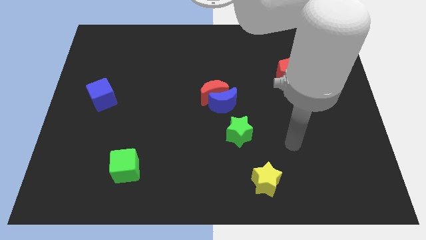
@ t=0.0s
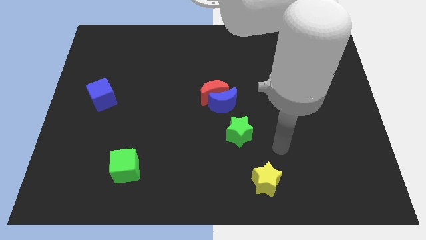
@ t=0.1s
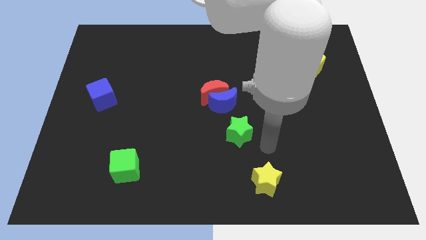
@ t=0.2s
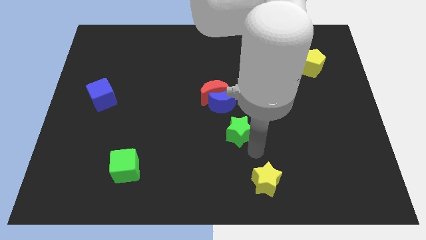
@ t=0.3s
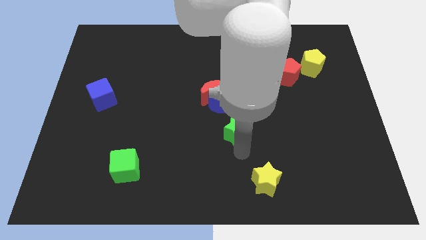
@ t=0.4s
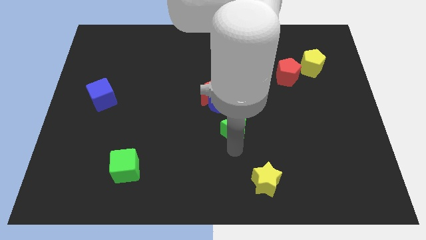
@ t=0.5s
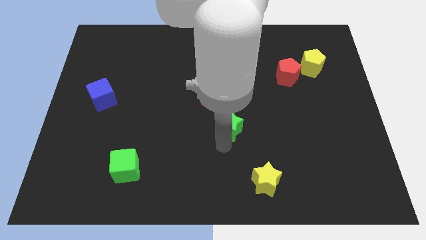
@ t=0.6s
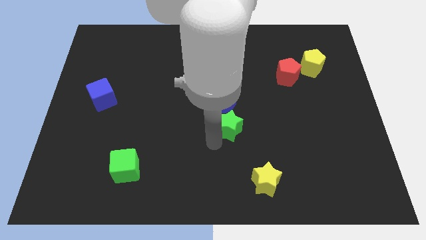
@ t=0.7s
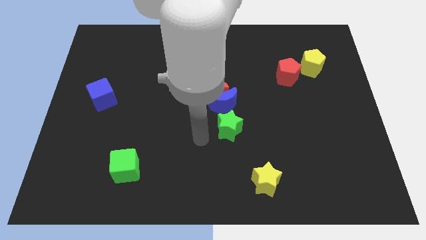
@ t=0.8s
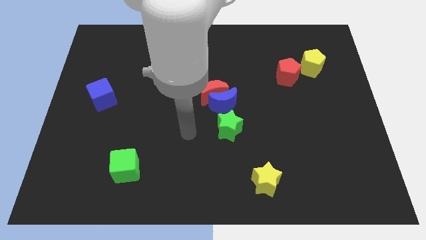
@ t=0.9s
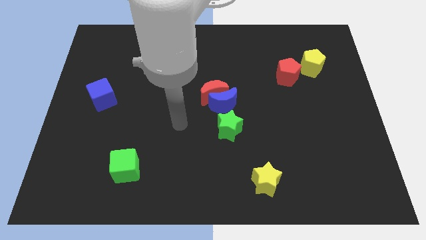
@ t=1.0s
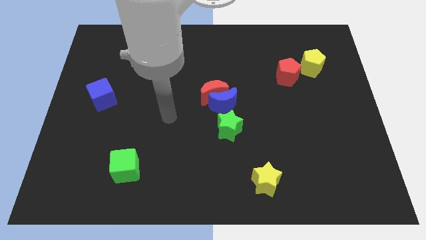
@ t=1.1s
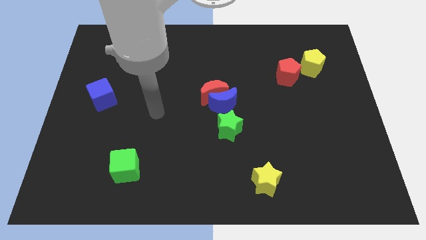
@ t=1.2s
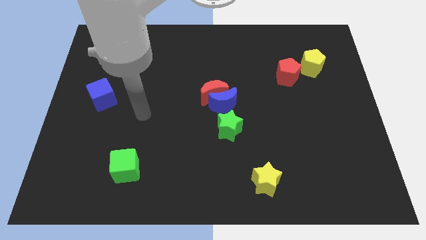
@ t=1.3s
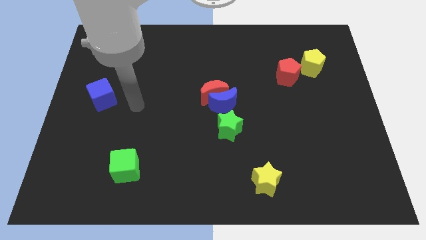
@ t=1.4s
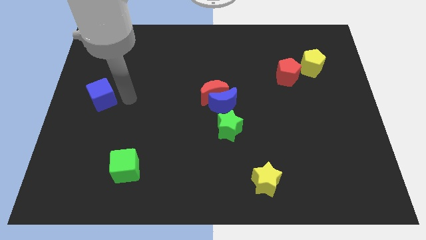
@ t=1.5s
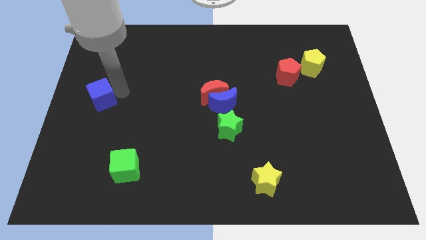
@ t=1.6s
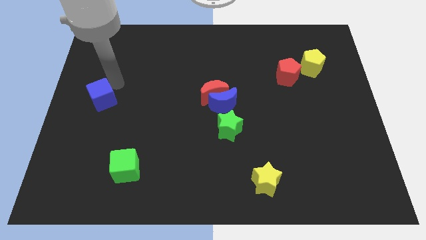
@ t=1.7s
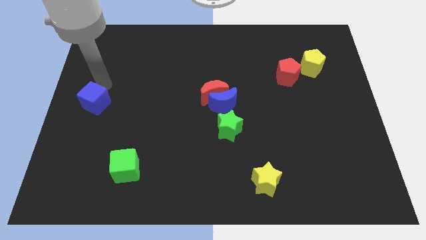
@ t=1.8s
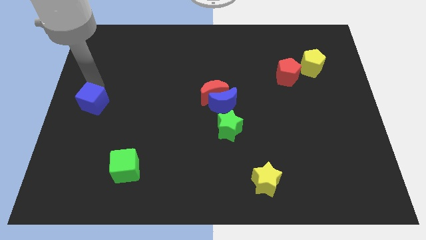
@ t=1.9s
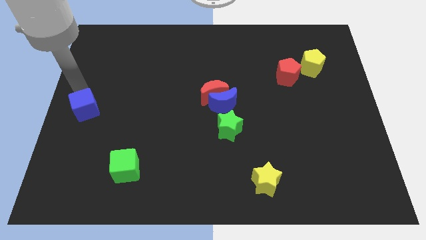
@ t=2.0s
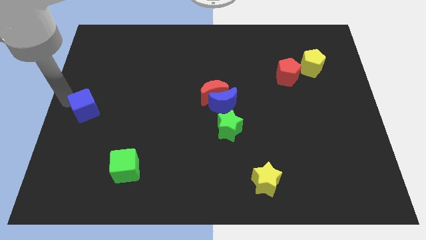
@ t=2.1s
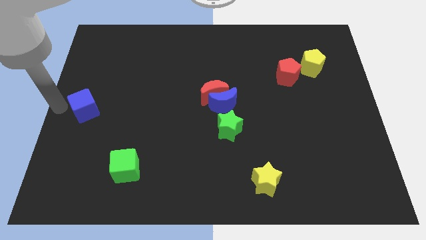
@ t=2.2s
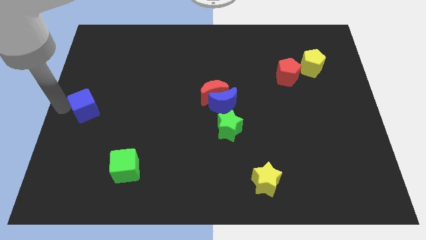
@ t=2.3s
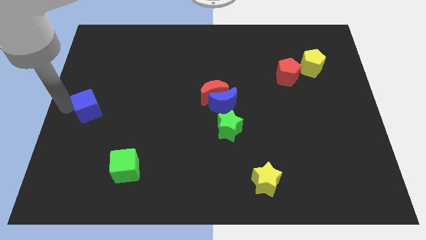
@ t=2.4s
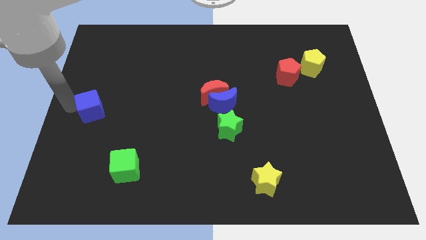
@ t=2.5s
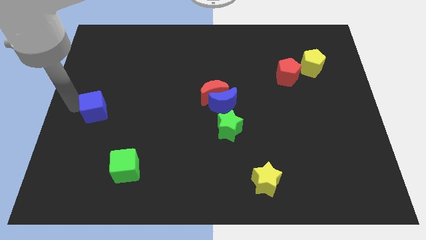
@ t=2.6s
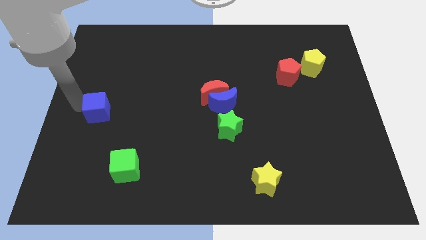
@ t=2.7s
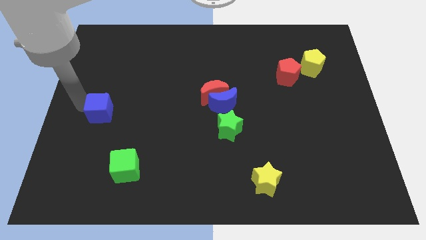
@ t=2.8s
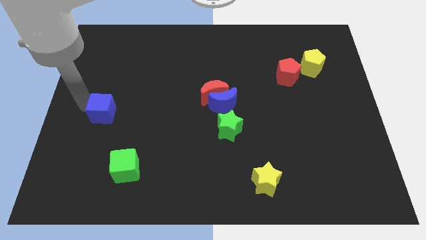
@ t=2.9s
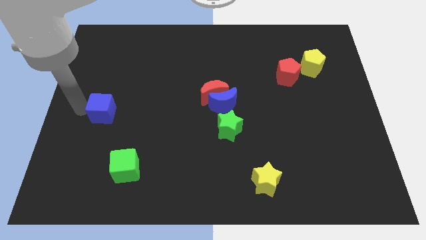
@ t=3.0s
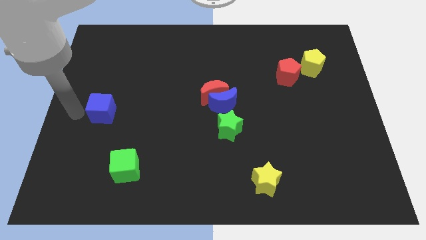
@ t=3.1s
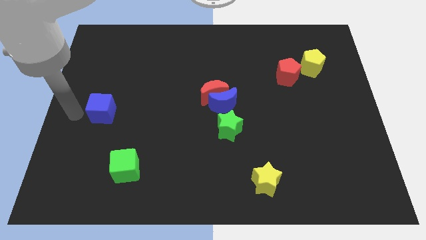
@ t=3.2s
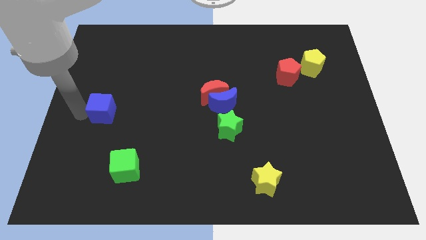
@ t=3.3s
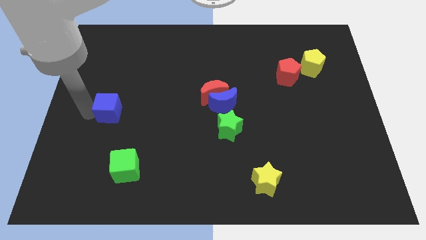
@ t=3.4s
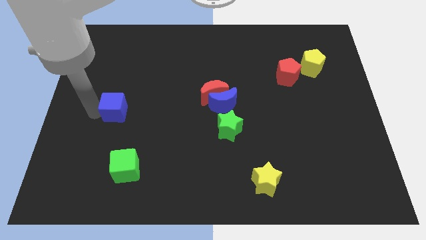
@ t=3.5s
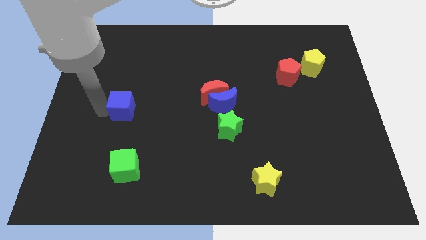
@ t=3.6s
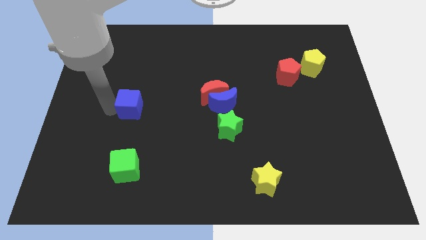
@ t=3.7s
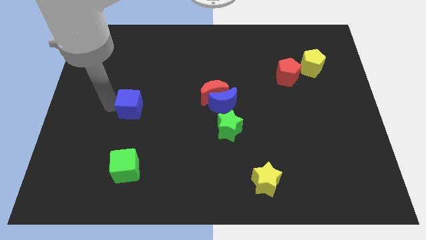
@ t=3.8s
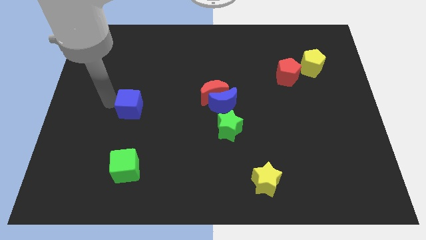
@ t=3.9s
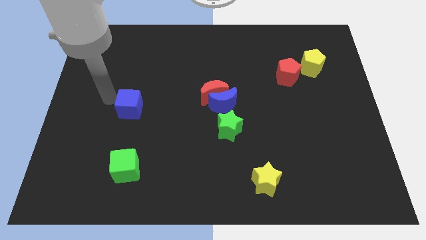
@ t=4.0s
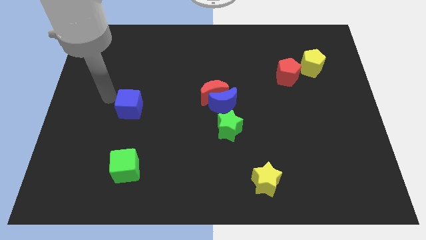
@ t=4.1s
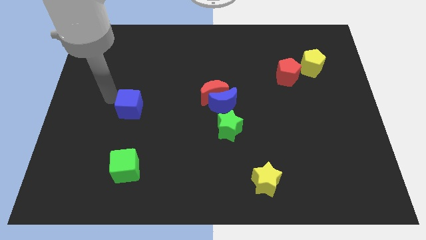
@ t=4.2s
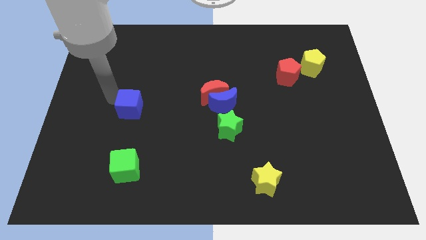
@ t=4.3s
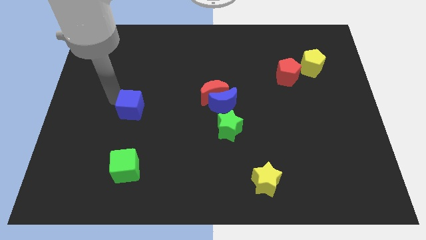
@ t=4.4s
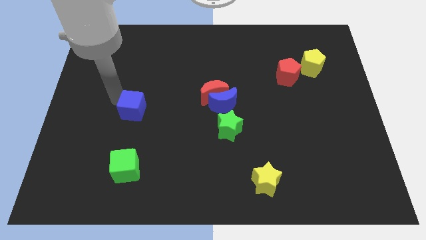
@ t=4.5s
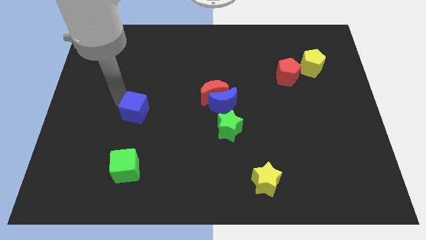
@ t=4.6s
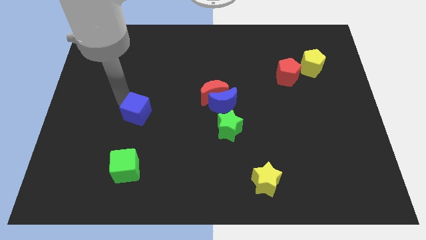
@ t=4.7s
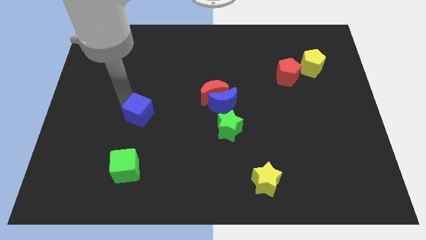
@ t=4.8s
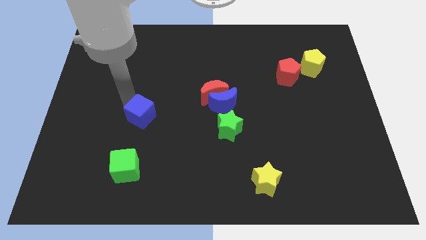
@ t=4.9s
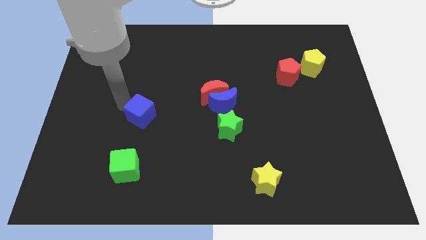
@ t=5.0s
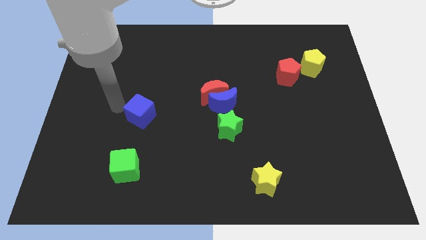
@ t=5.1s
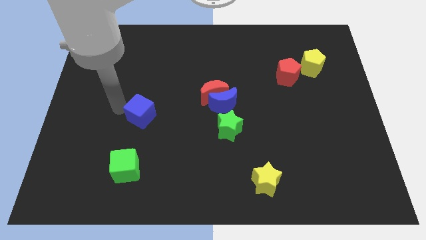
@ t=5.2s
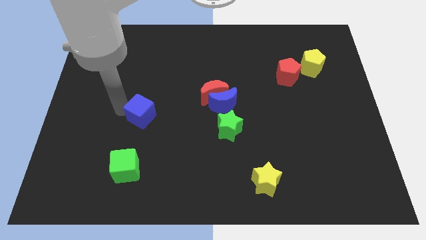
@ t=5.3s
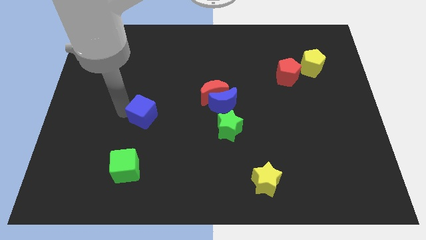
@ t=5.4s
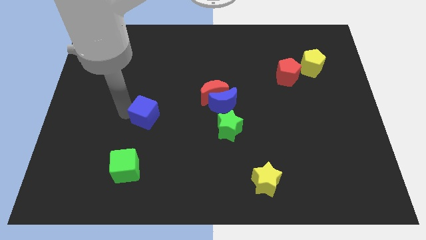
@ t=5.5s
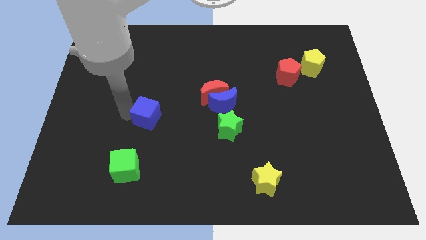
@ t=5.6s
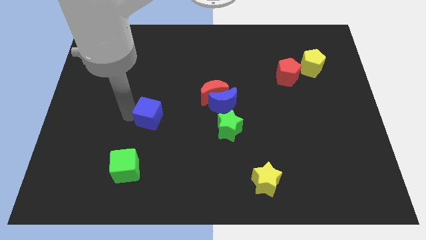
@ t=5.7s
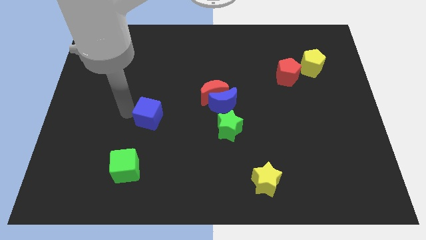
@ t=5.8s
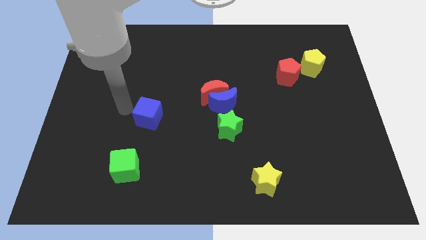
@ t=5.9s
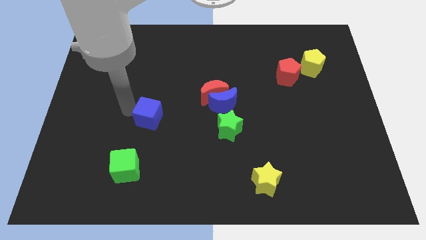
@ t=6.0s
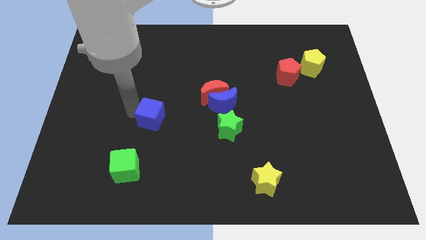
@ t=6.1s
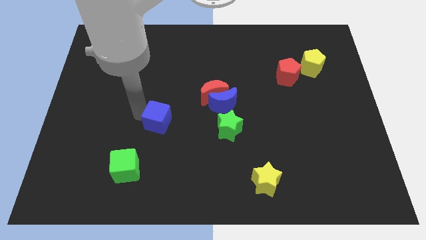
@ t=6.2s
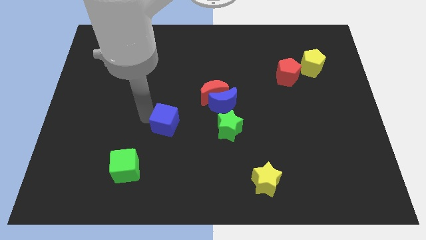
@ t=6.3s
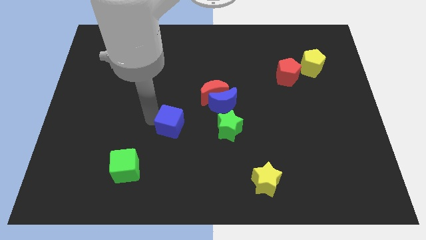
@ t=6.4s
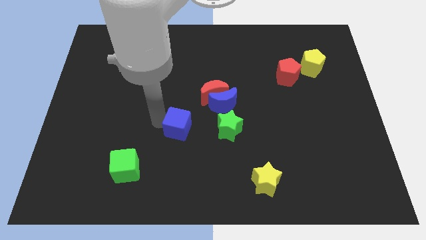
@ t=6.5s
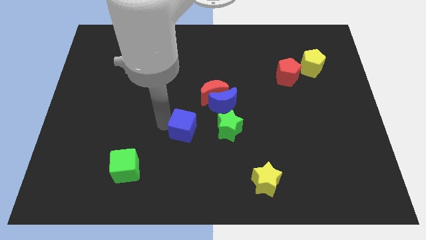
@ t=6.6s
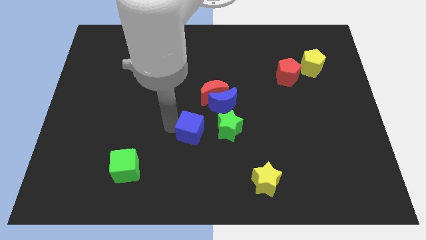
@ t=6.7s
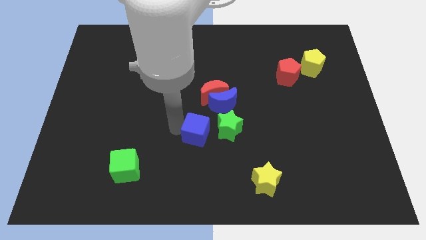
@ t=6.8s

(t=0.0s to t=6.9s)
slide the blue cube below the red moon

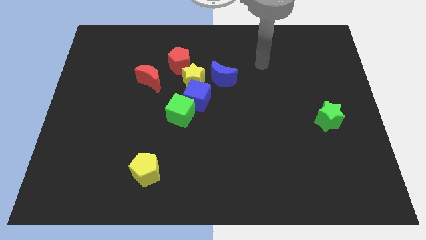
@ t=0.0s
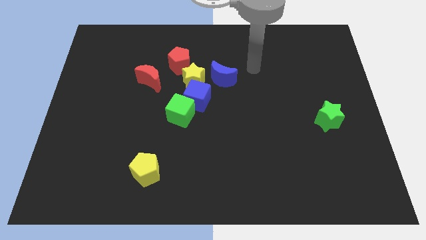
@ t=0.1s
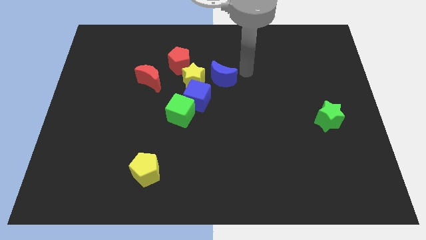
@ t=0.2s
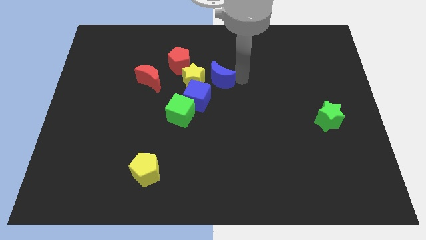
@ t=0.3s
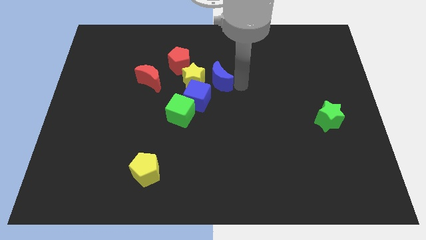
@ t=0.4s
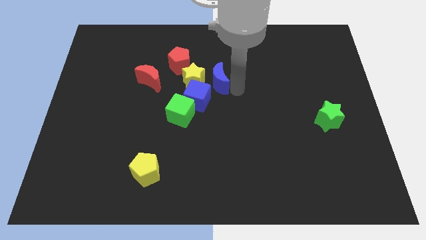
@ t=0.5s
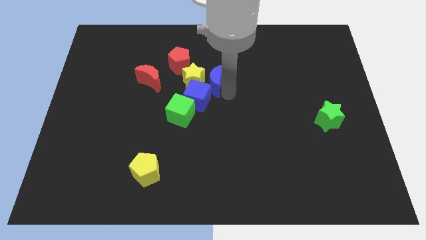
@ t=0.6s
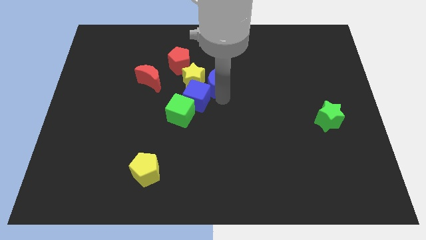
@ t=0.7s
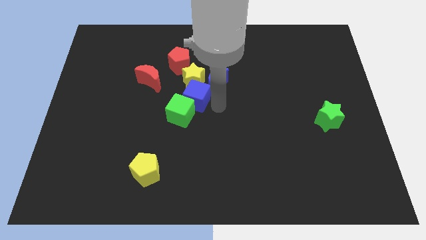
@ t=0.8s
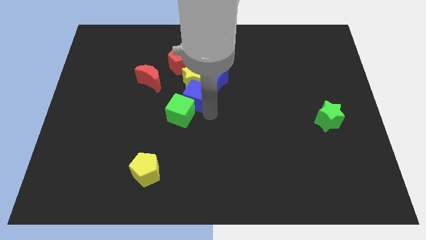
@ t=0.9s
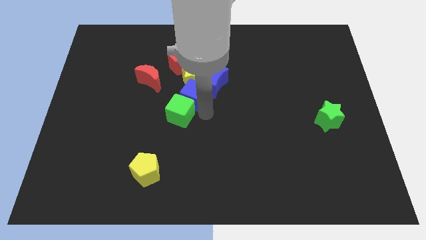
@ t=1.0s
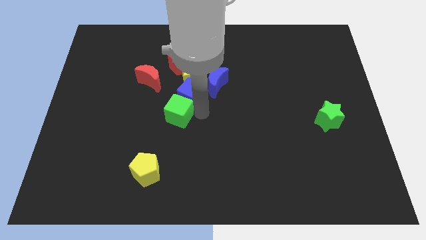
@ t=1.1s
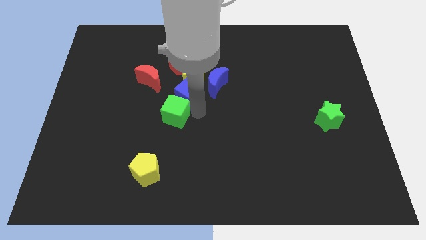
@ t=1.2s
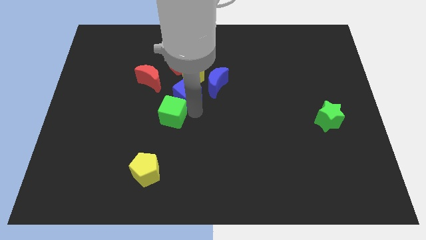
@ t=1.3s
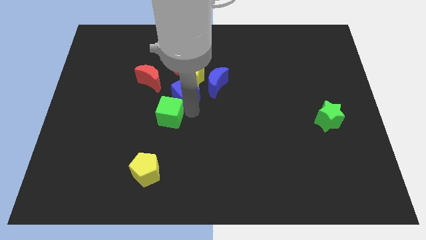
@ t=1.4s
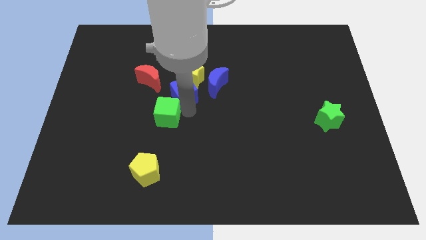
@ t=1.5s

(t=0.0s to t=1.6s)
put the green cube to the bottom of the red moon
